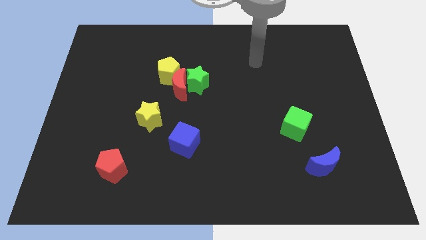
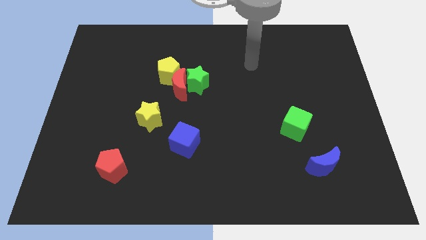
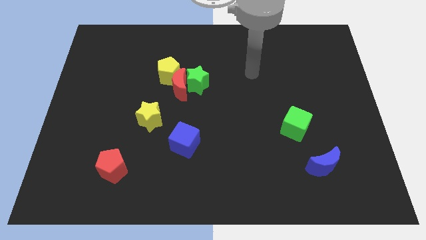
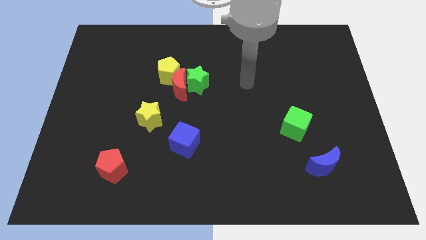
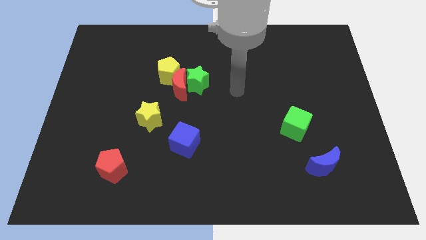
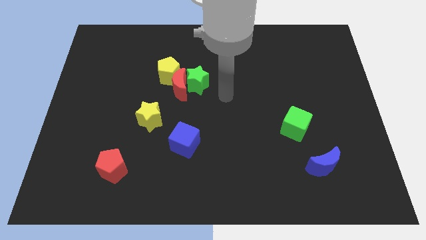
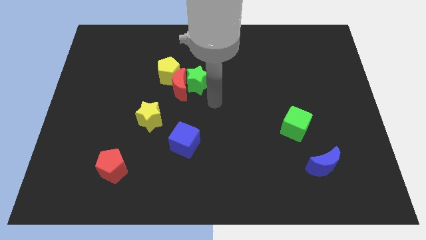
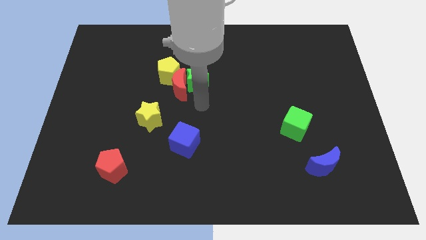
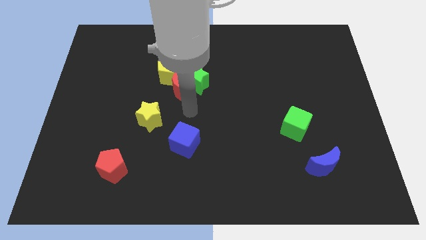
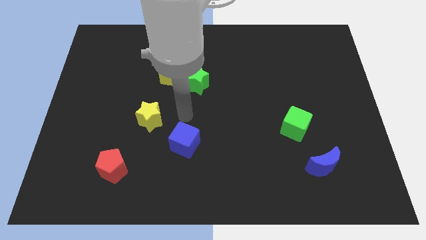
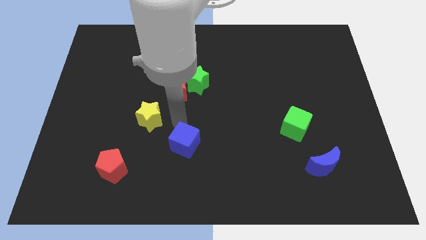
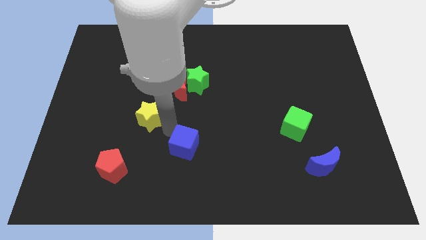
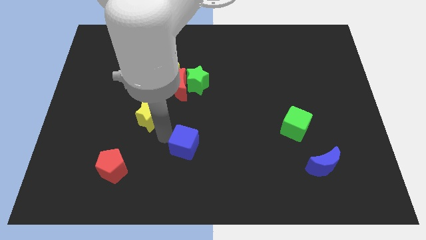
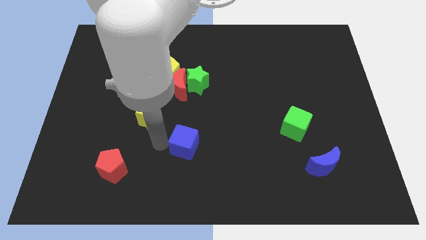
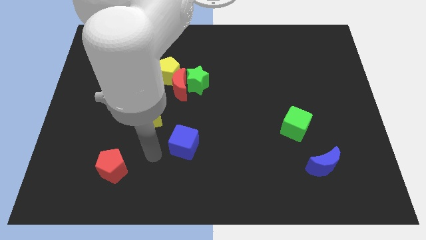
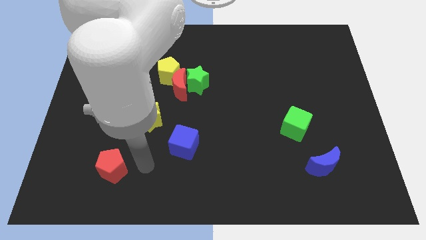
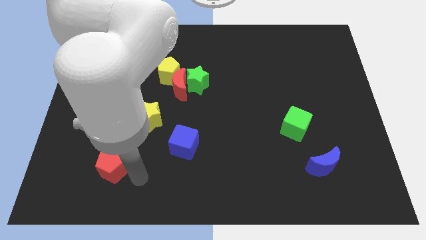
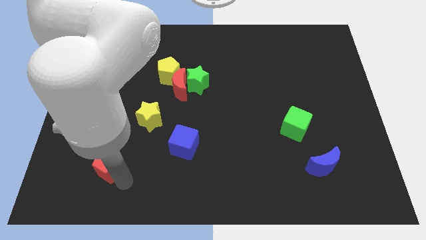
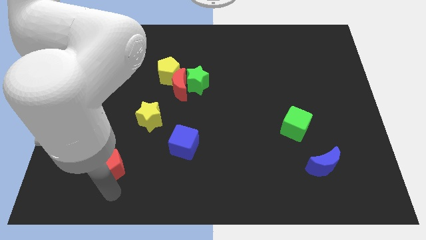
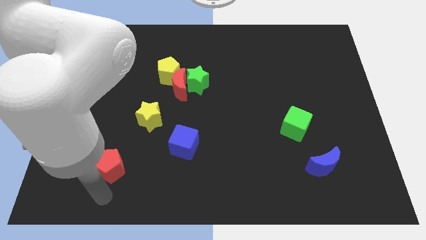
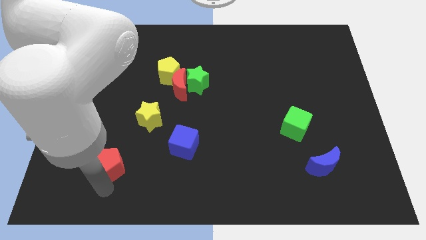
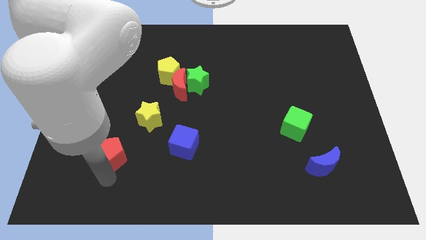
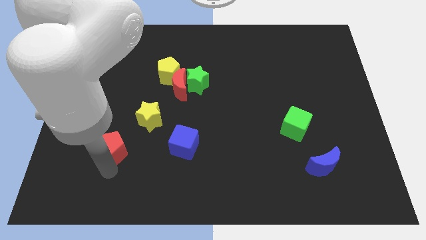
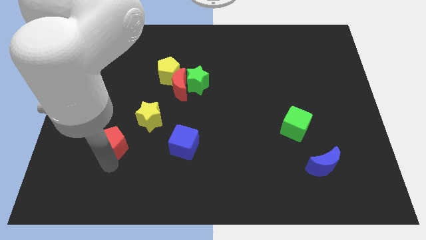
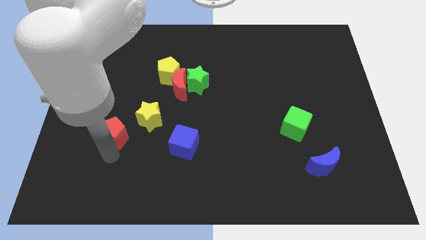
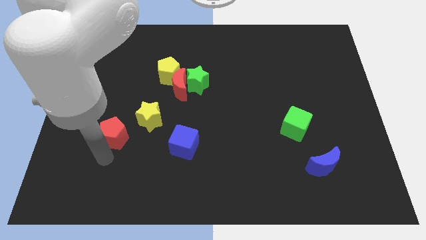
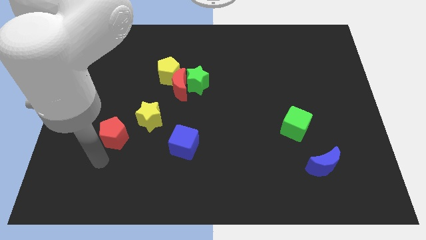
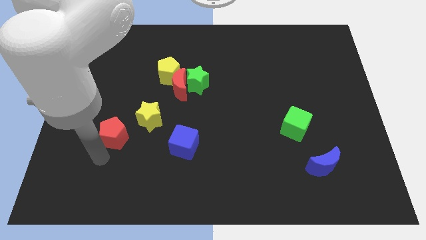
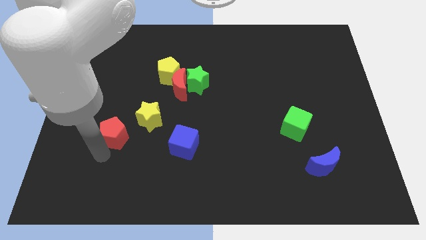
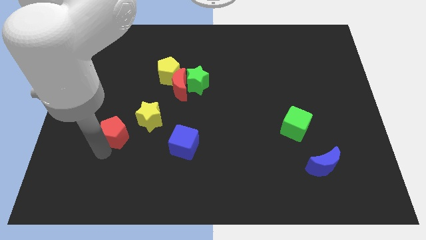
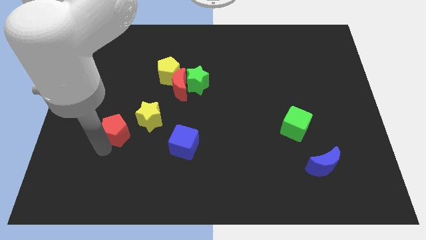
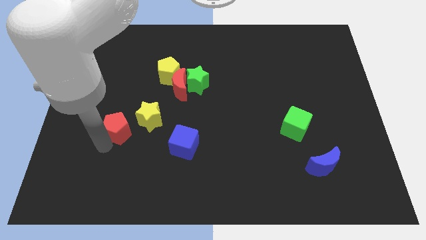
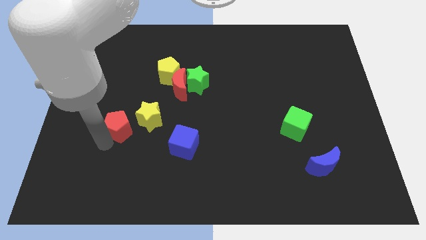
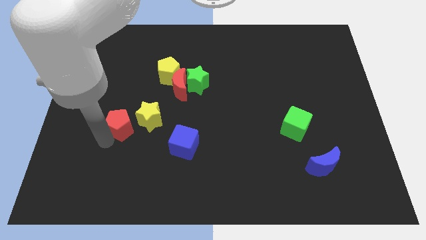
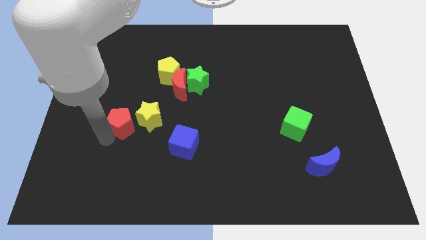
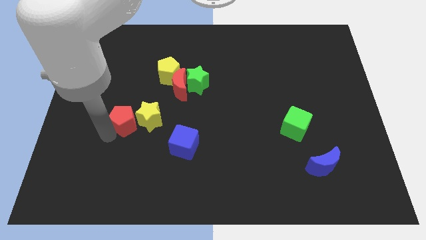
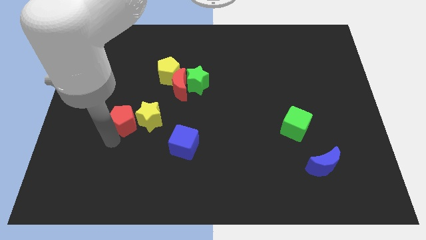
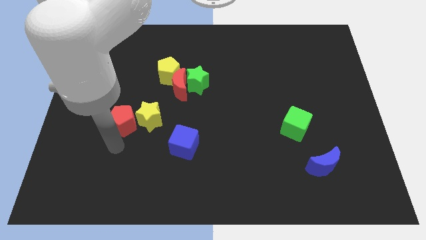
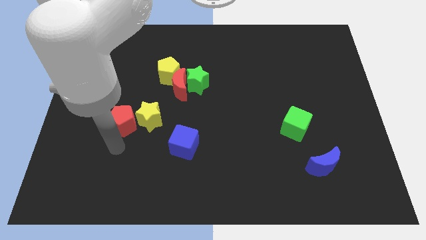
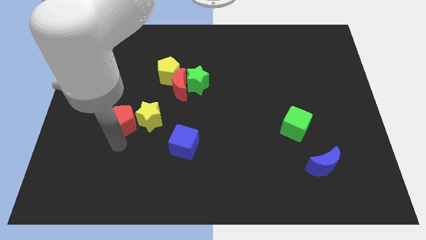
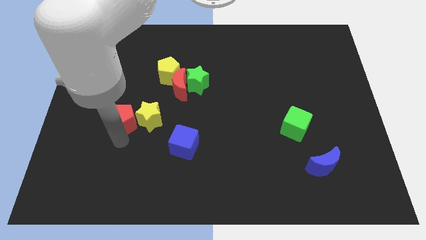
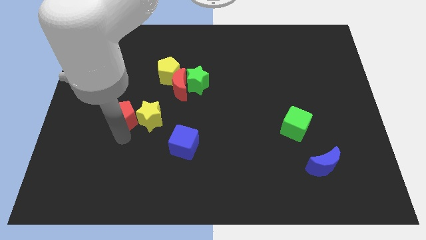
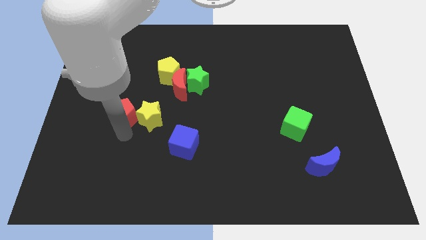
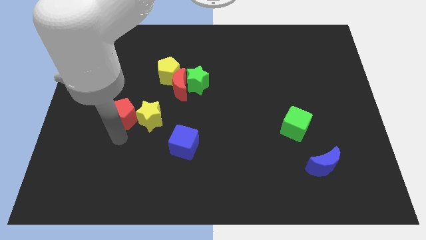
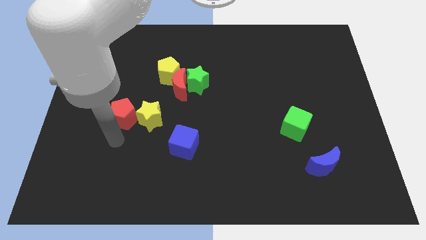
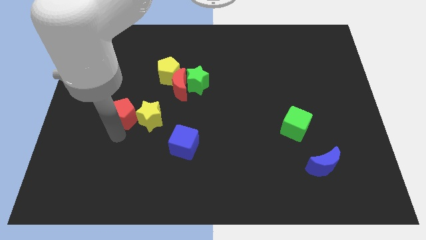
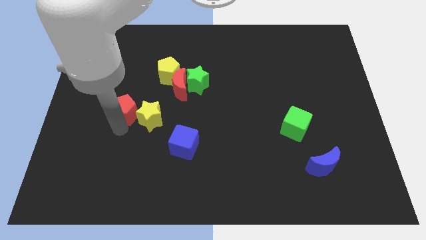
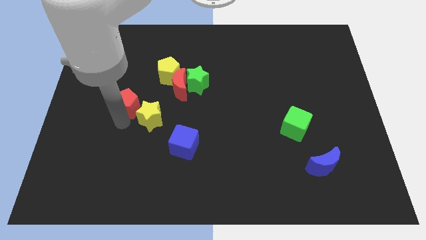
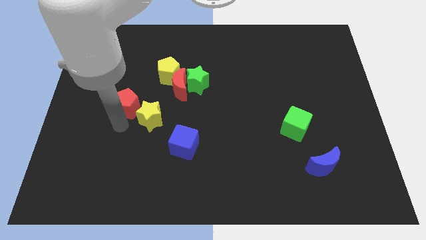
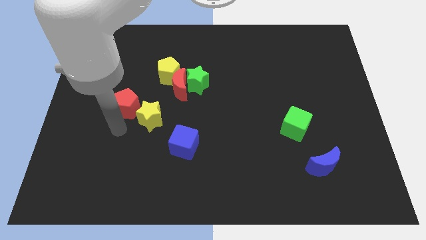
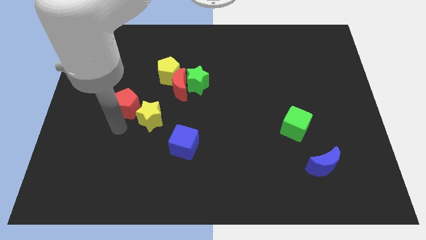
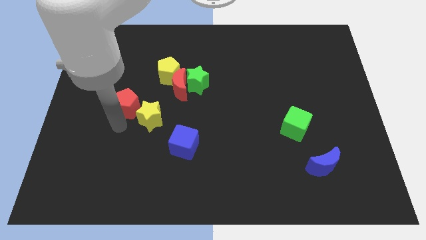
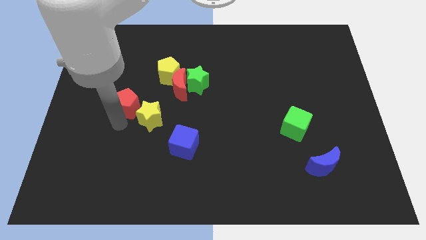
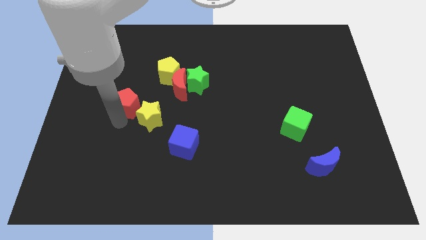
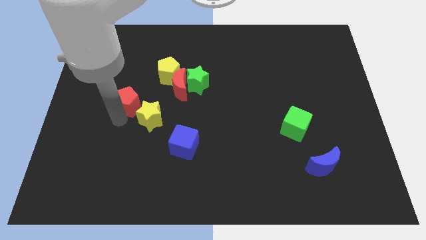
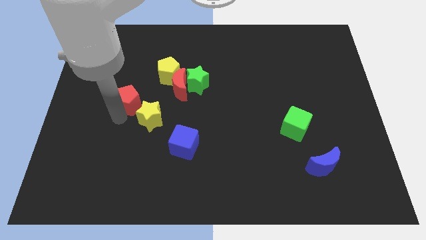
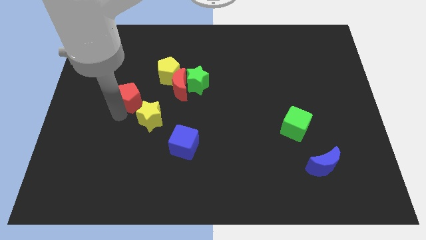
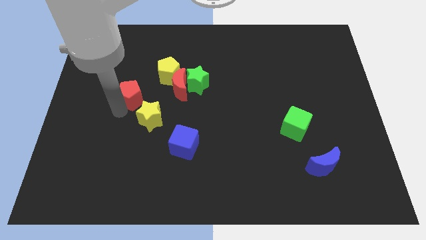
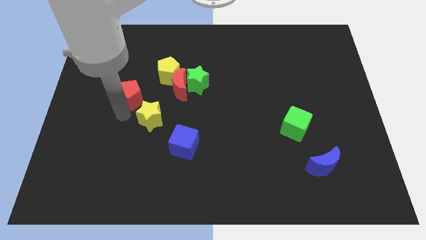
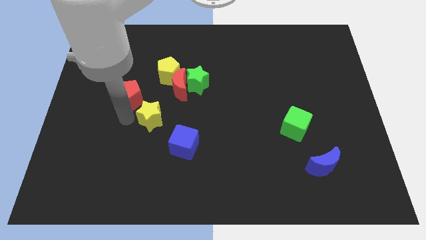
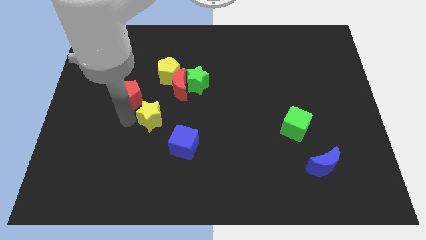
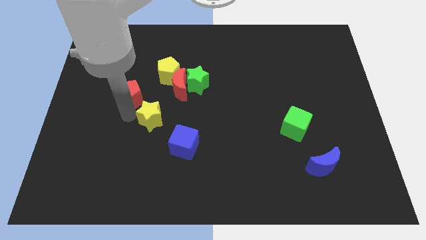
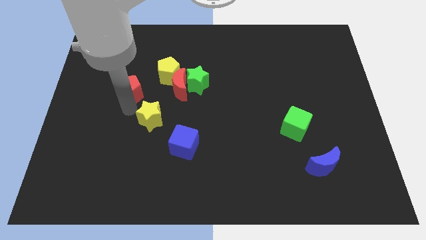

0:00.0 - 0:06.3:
push the red pentagon upwards

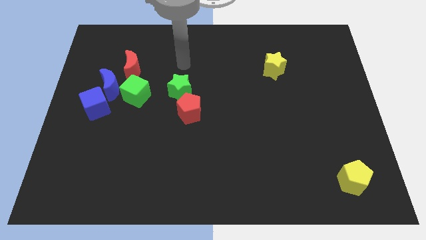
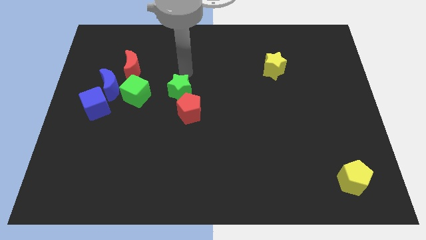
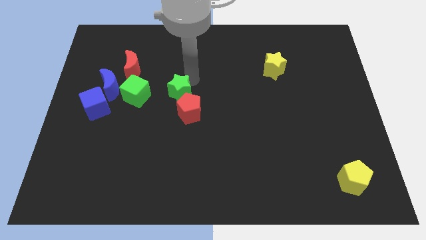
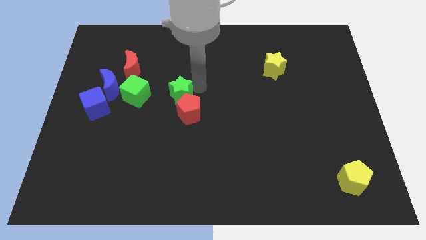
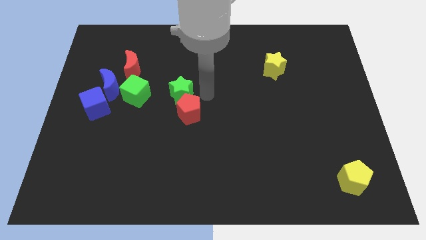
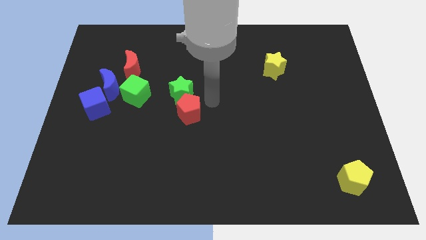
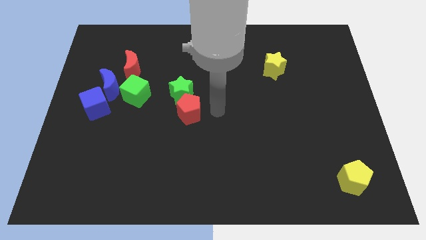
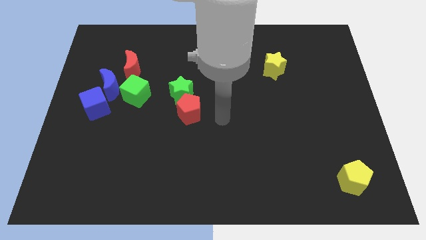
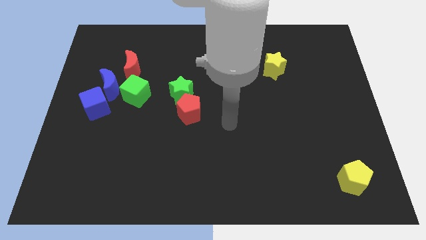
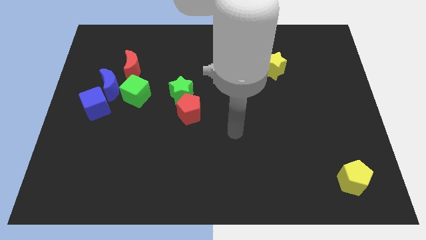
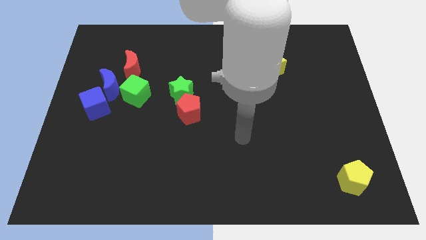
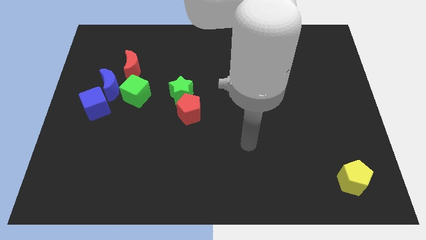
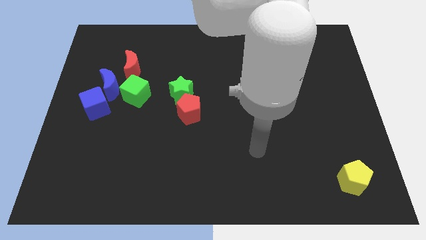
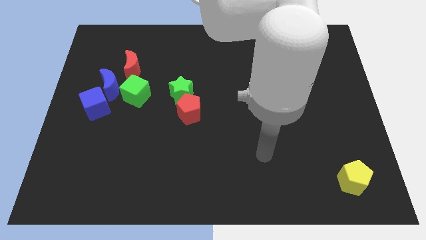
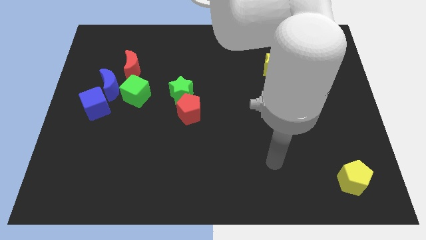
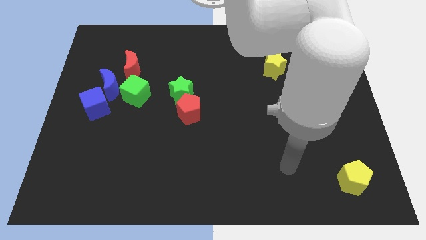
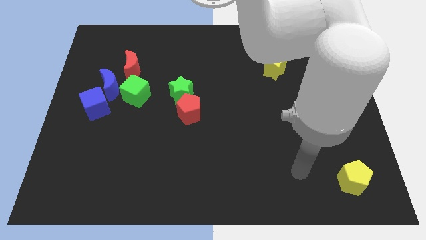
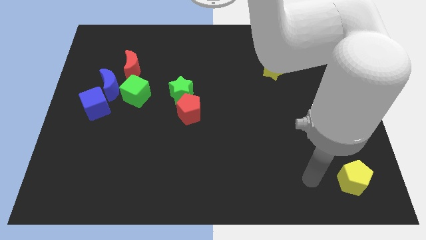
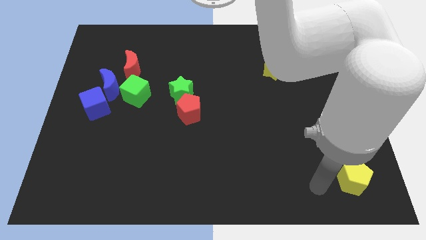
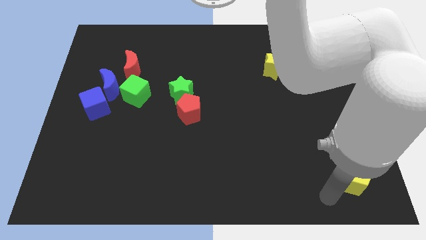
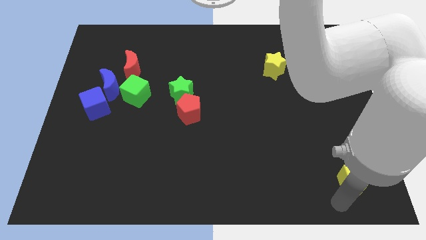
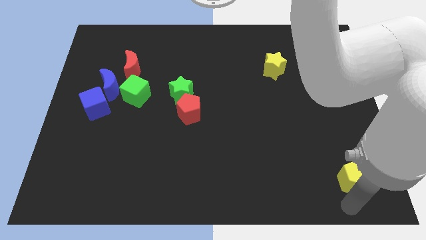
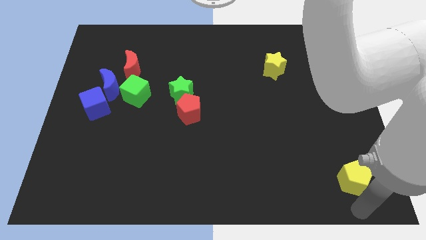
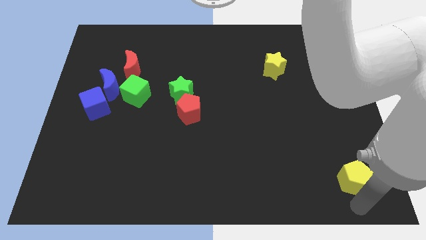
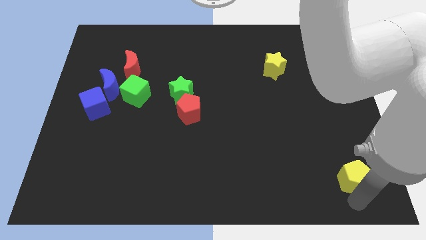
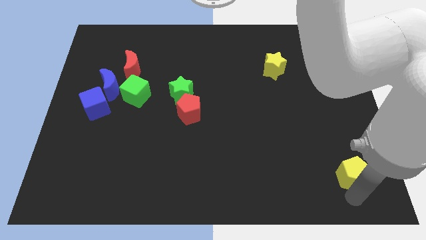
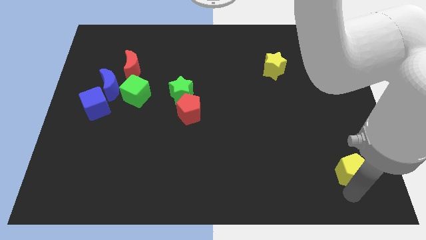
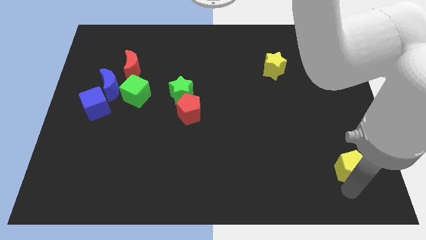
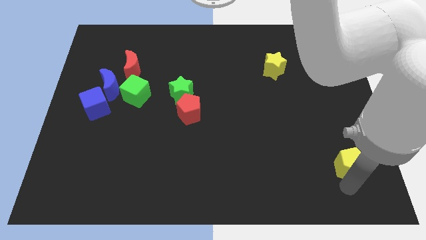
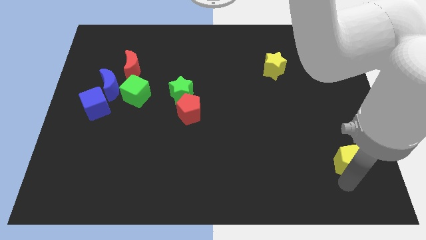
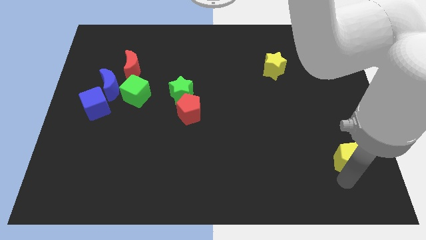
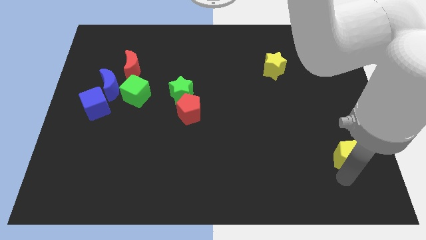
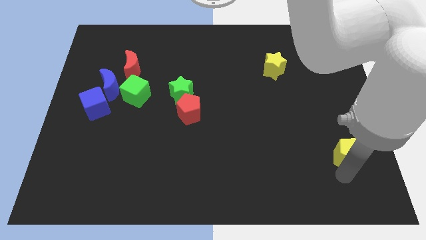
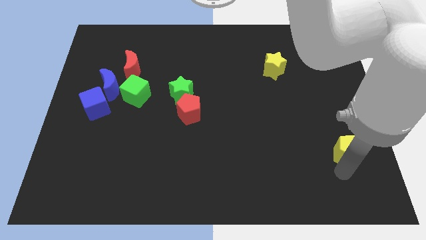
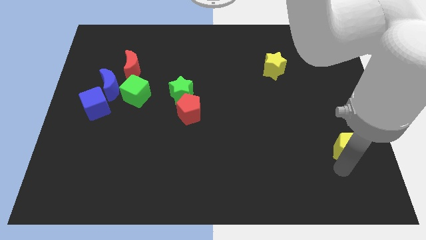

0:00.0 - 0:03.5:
push the yellow pentagon up slightly
